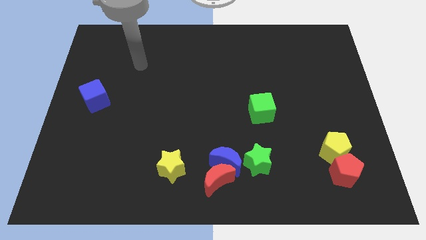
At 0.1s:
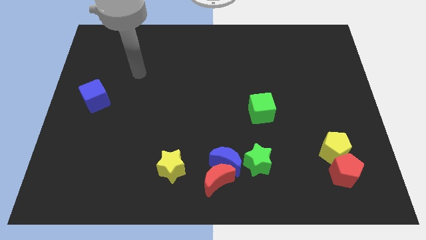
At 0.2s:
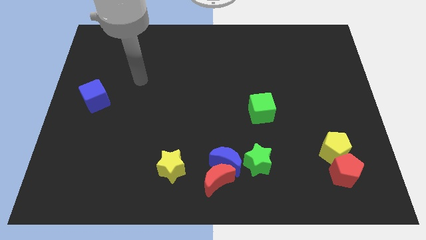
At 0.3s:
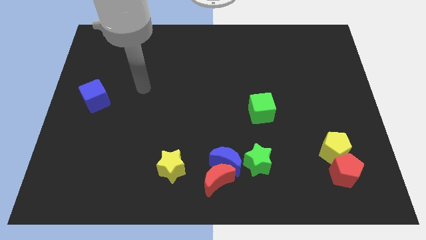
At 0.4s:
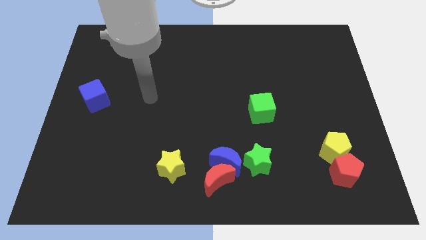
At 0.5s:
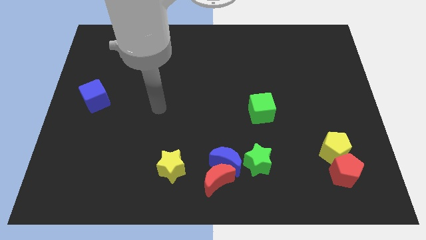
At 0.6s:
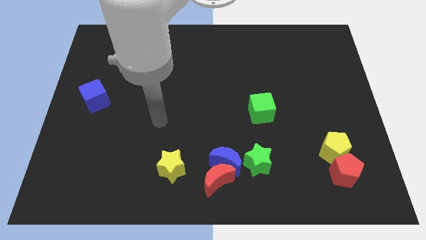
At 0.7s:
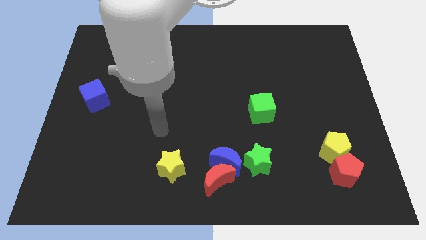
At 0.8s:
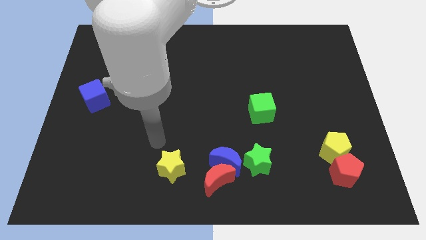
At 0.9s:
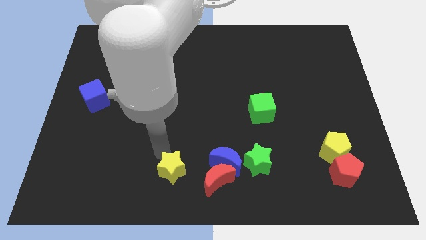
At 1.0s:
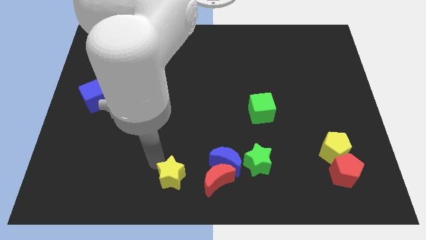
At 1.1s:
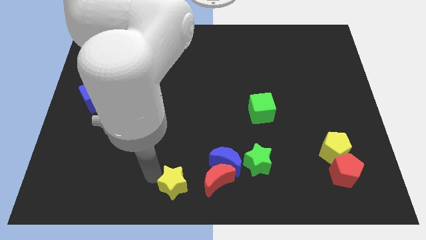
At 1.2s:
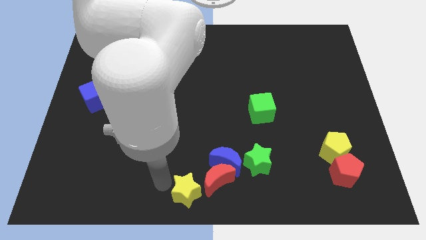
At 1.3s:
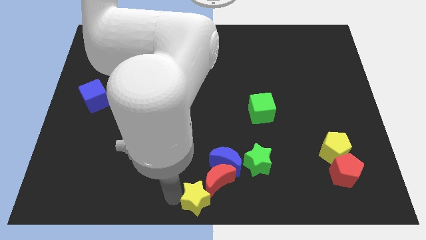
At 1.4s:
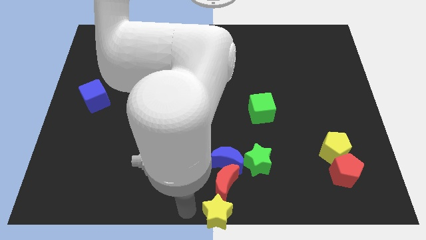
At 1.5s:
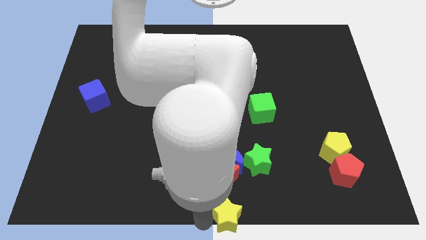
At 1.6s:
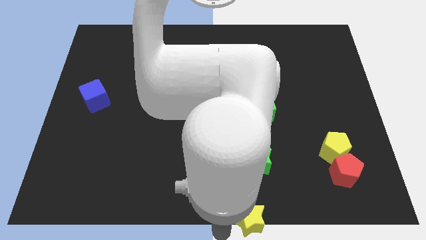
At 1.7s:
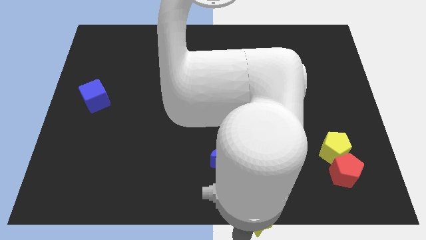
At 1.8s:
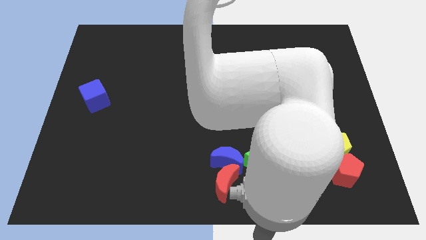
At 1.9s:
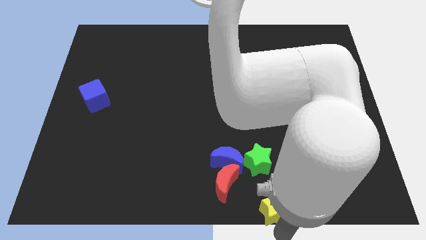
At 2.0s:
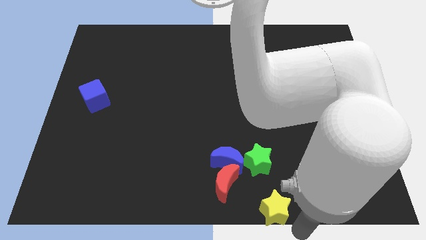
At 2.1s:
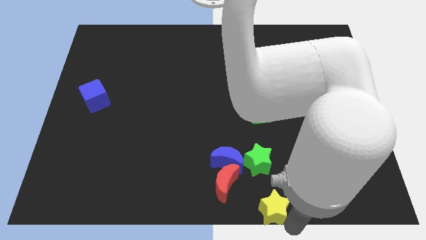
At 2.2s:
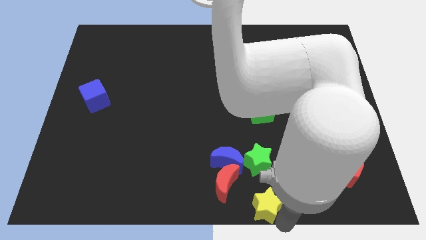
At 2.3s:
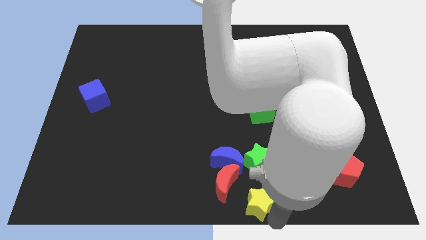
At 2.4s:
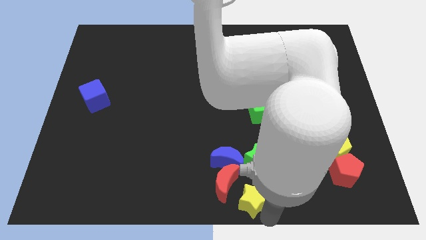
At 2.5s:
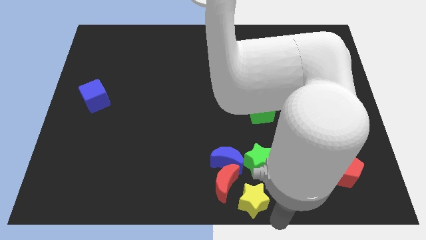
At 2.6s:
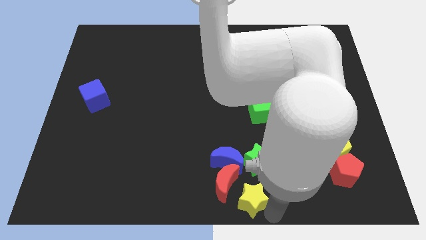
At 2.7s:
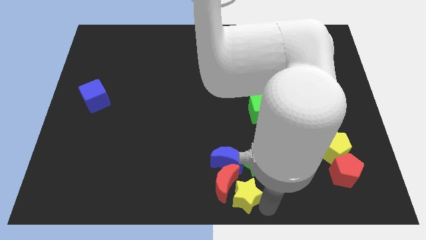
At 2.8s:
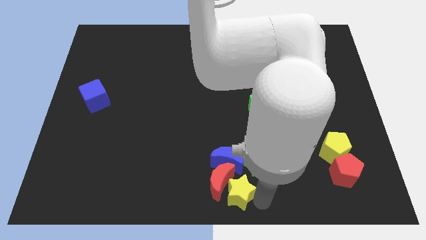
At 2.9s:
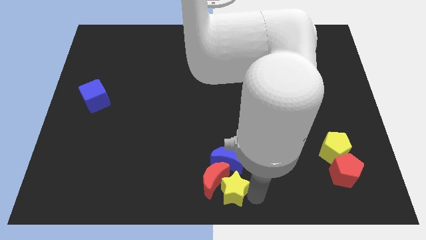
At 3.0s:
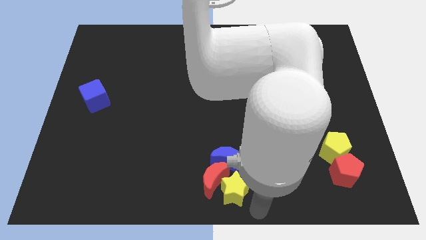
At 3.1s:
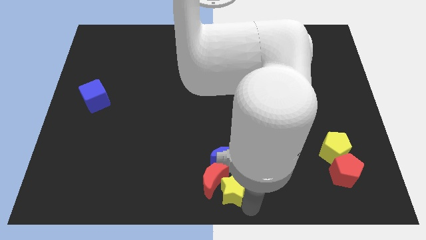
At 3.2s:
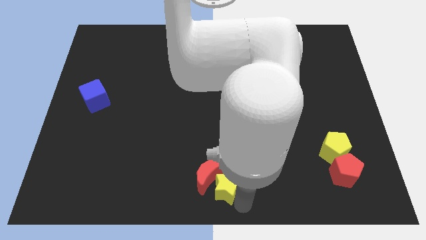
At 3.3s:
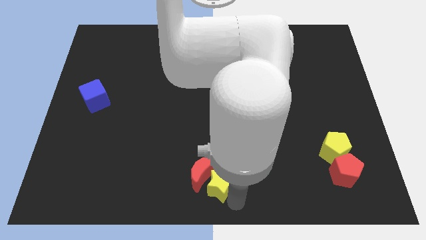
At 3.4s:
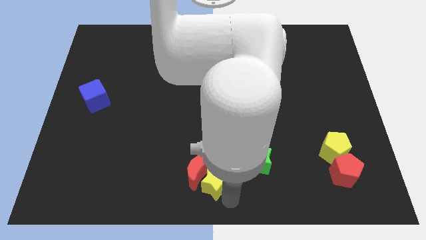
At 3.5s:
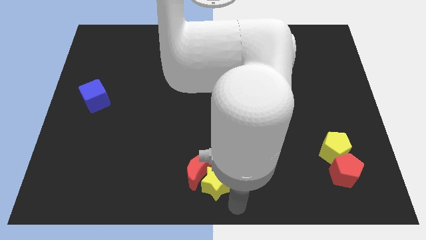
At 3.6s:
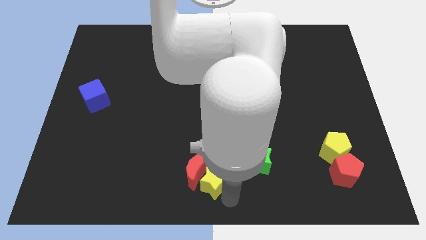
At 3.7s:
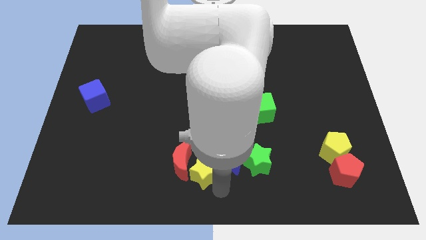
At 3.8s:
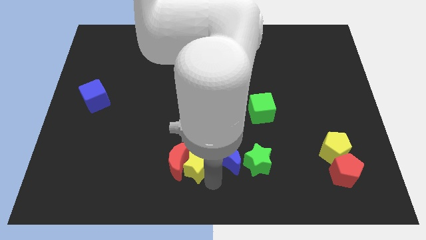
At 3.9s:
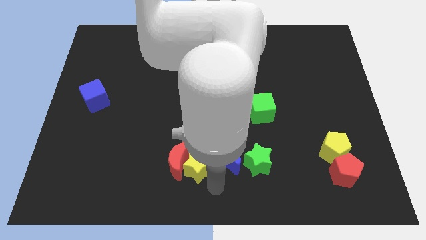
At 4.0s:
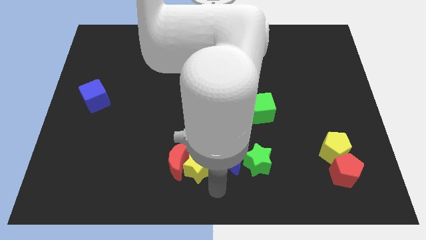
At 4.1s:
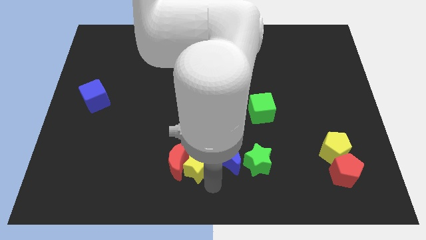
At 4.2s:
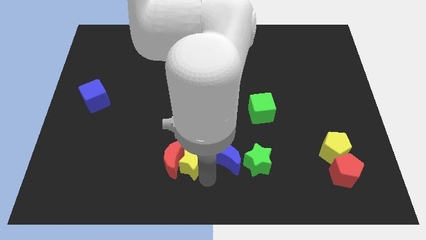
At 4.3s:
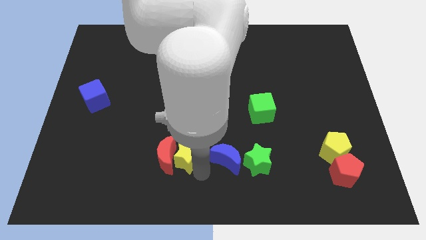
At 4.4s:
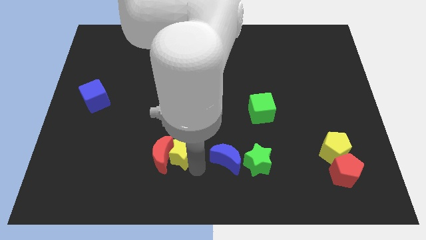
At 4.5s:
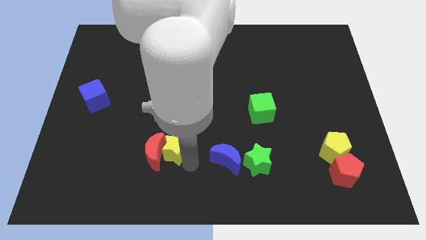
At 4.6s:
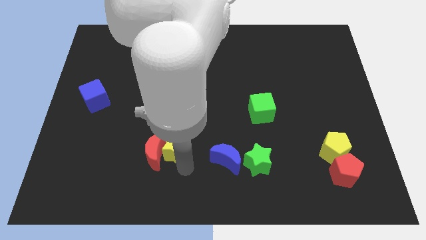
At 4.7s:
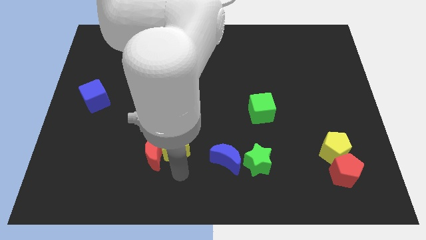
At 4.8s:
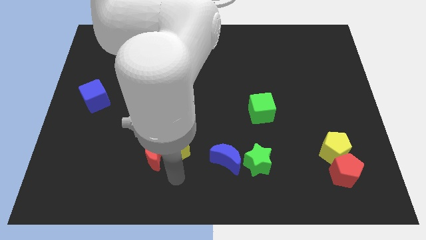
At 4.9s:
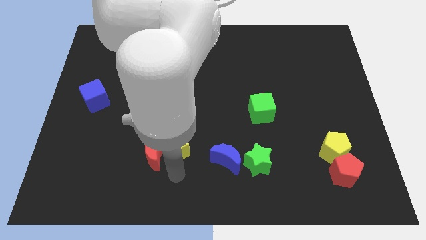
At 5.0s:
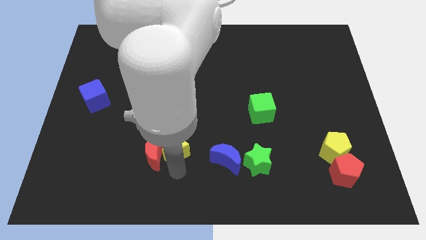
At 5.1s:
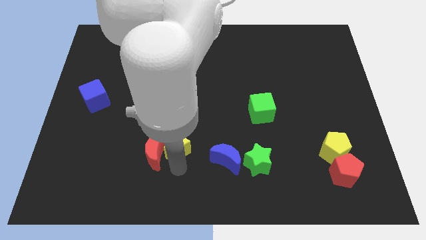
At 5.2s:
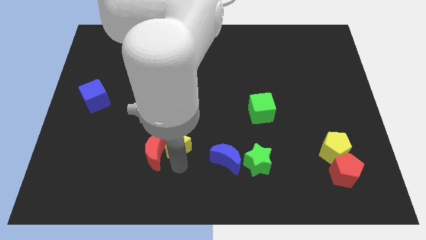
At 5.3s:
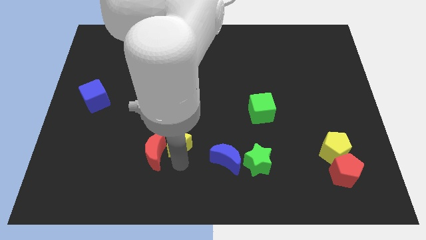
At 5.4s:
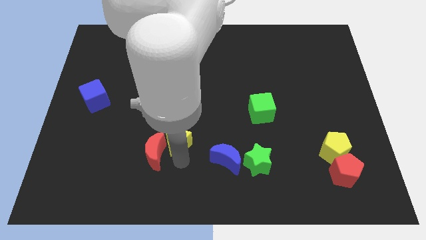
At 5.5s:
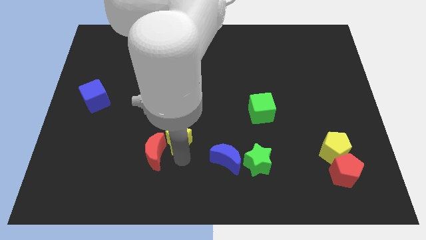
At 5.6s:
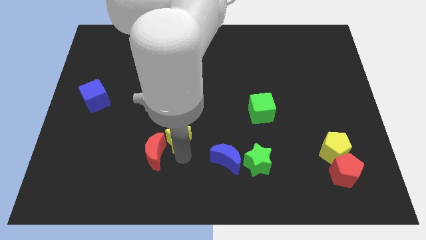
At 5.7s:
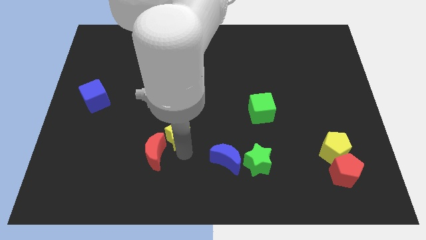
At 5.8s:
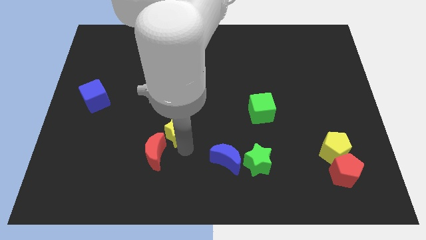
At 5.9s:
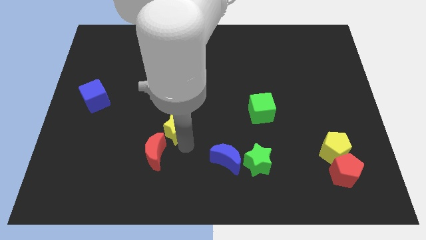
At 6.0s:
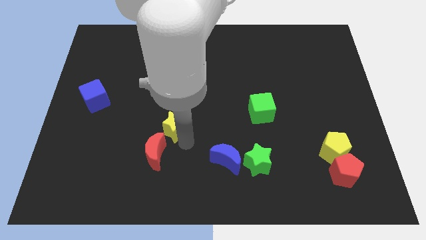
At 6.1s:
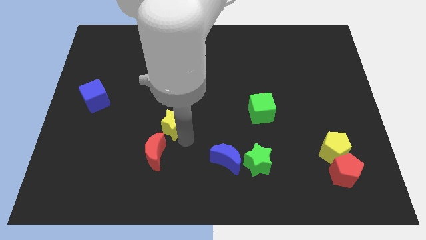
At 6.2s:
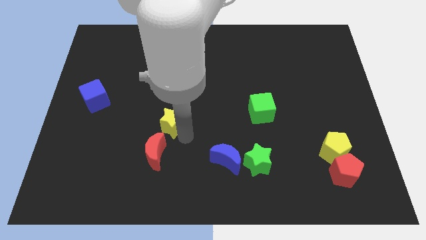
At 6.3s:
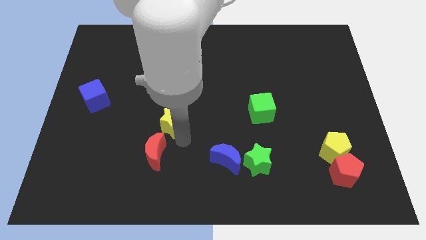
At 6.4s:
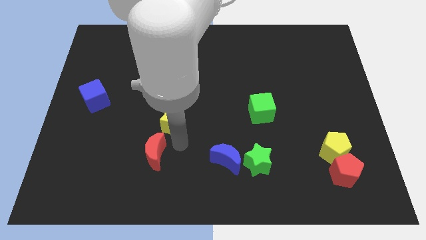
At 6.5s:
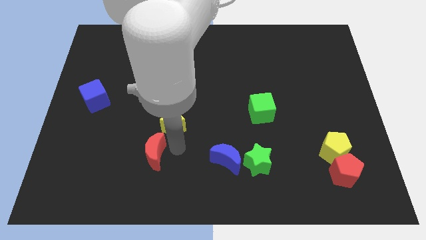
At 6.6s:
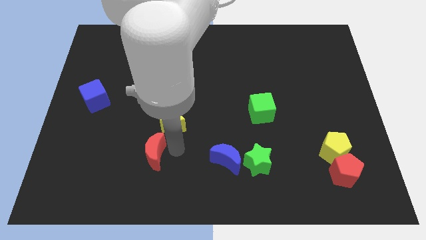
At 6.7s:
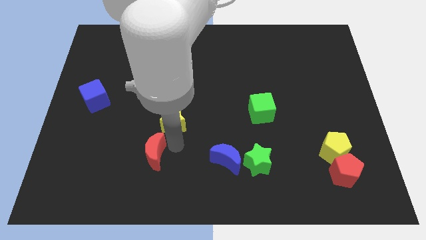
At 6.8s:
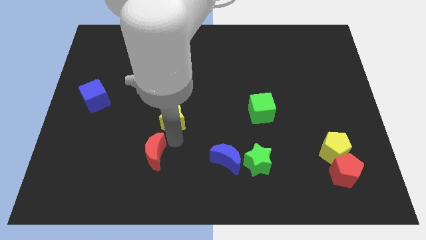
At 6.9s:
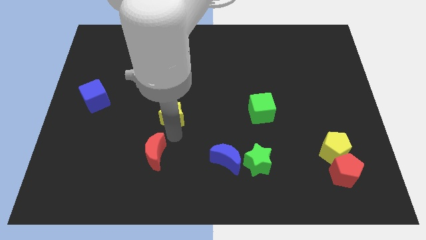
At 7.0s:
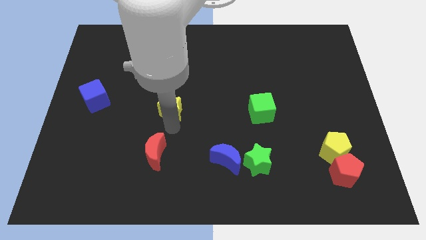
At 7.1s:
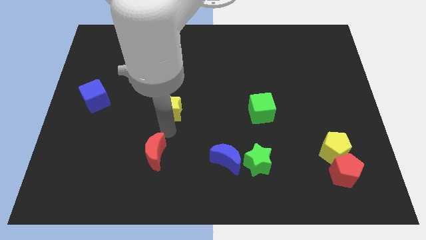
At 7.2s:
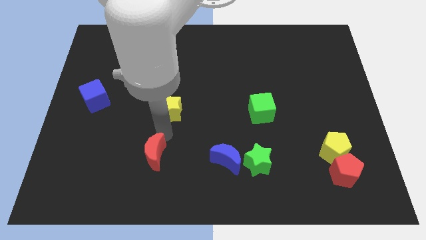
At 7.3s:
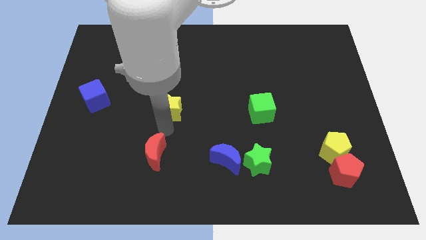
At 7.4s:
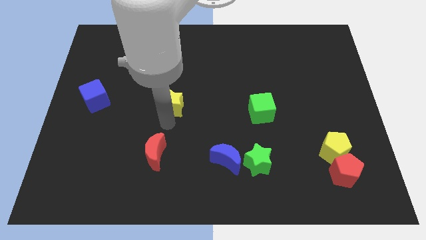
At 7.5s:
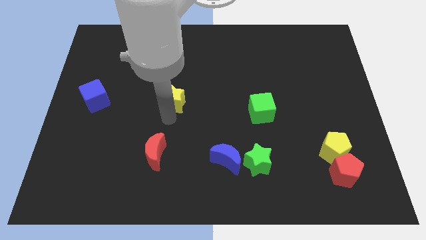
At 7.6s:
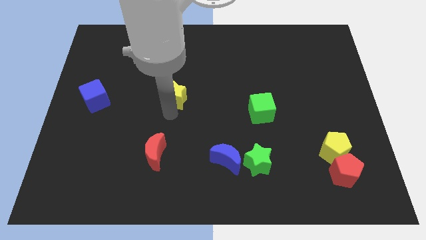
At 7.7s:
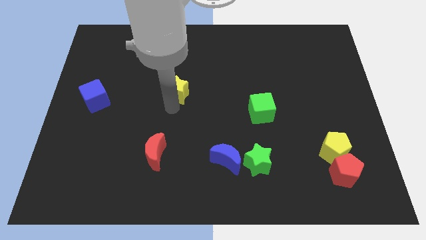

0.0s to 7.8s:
slide the yellow star upwards
